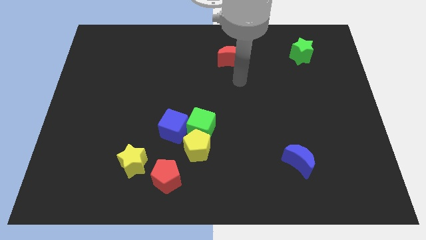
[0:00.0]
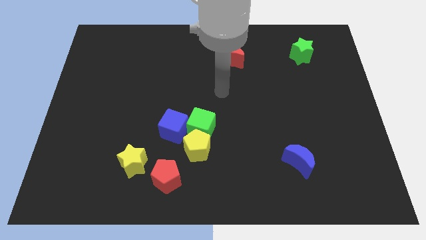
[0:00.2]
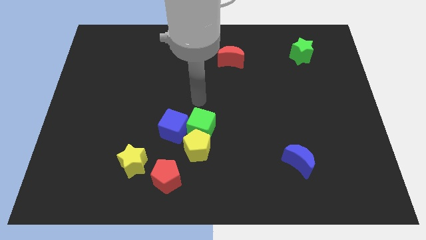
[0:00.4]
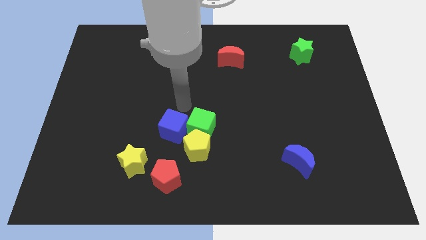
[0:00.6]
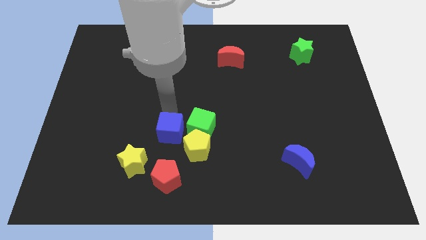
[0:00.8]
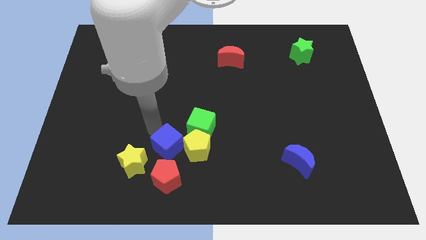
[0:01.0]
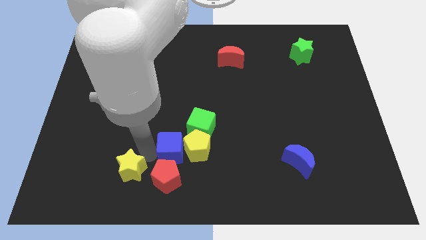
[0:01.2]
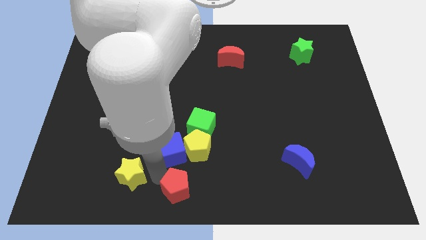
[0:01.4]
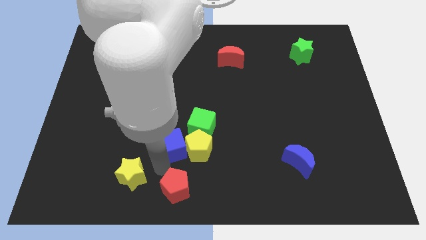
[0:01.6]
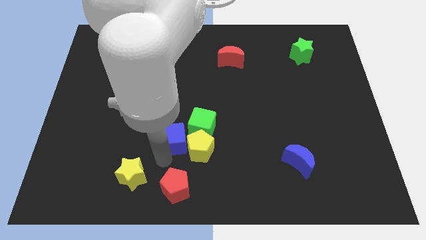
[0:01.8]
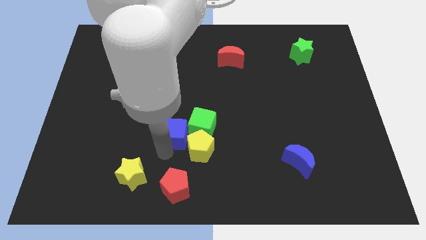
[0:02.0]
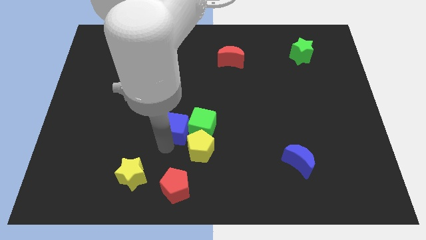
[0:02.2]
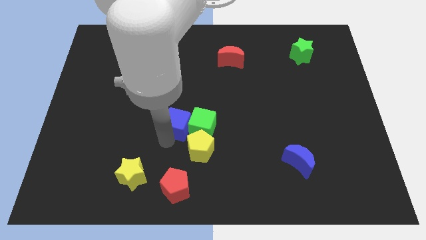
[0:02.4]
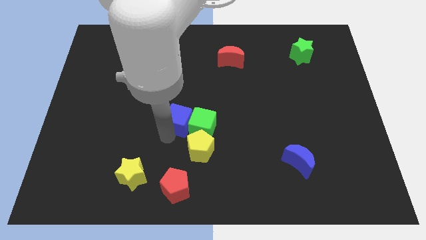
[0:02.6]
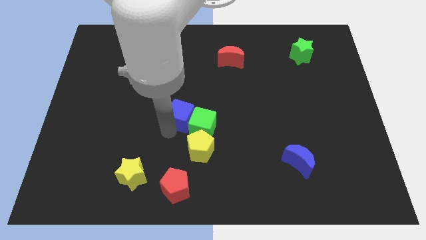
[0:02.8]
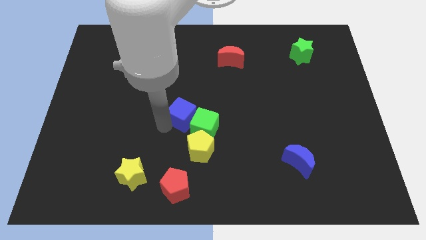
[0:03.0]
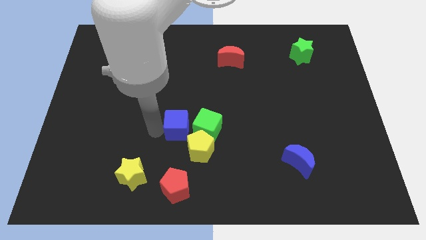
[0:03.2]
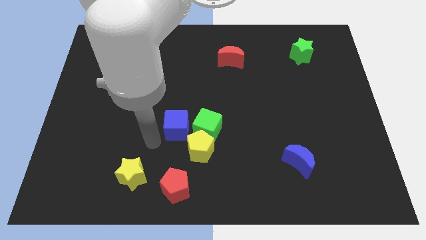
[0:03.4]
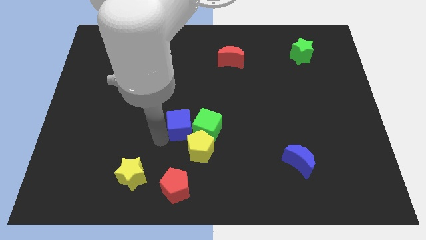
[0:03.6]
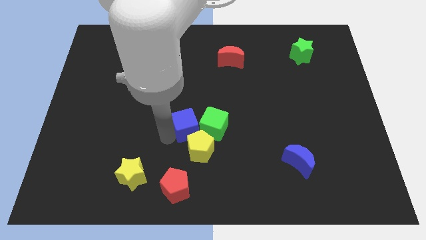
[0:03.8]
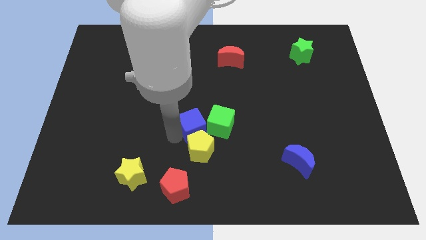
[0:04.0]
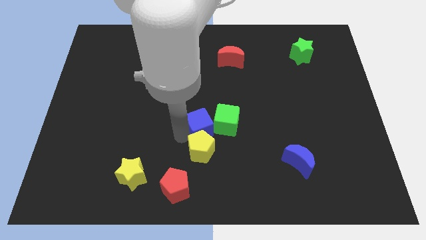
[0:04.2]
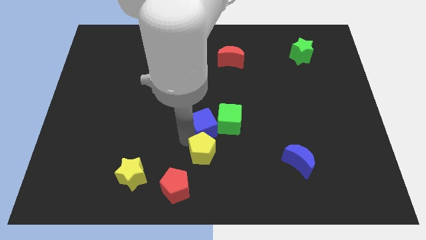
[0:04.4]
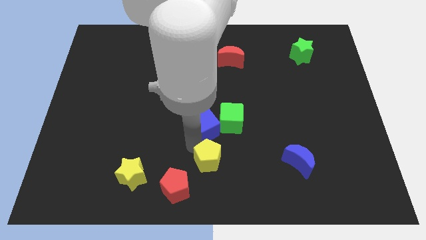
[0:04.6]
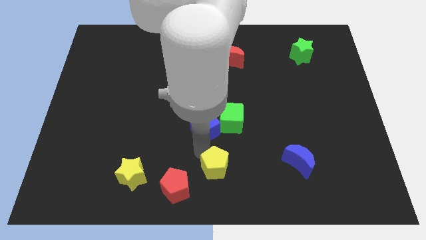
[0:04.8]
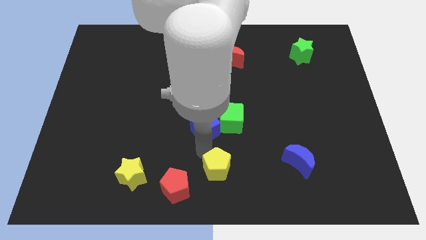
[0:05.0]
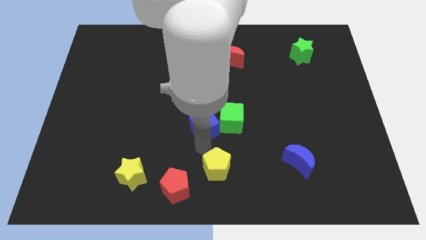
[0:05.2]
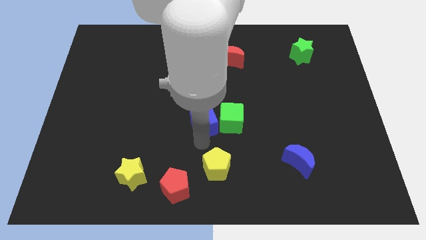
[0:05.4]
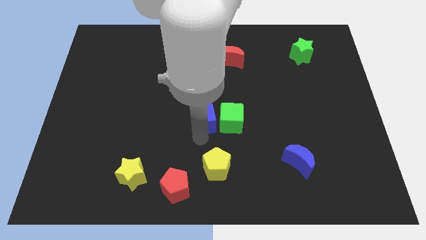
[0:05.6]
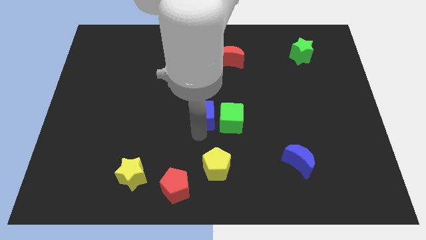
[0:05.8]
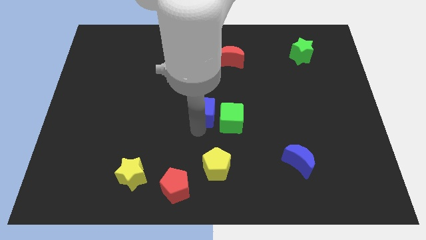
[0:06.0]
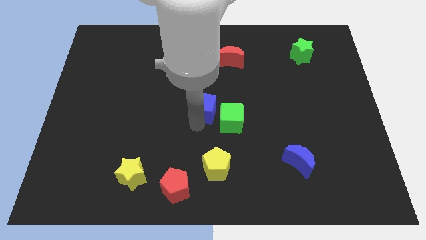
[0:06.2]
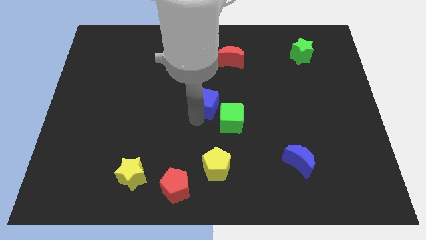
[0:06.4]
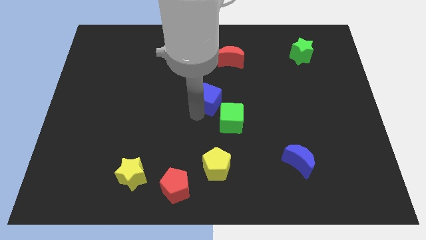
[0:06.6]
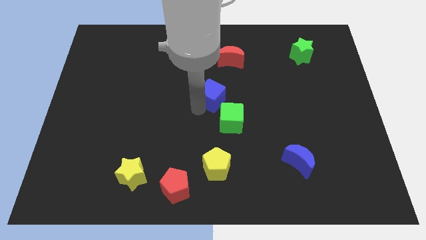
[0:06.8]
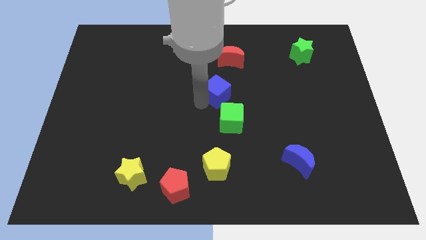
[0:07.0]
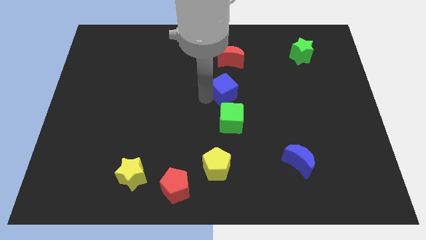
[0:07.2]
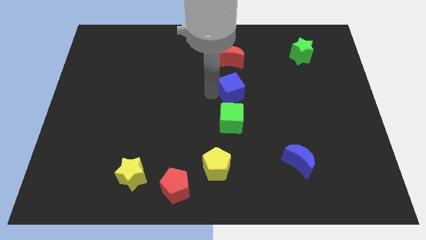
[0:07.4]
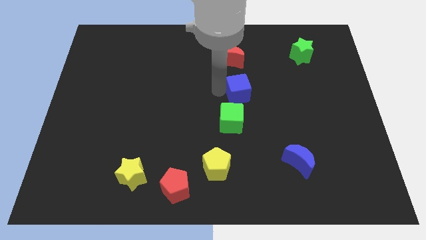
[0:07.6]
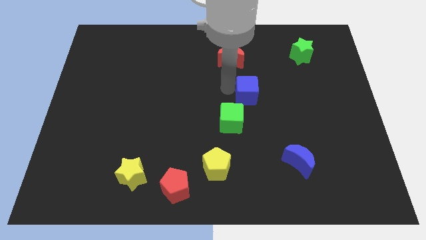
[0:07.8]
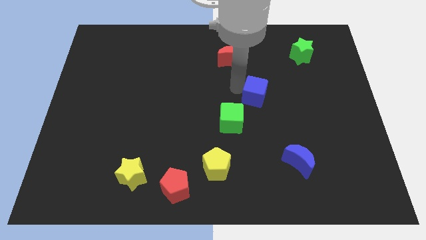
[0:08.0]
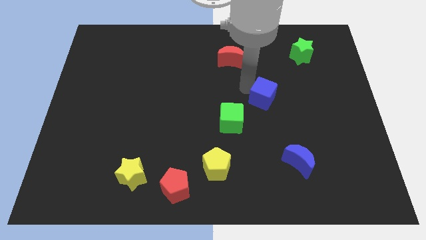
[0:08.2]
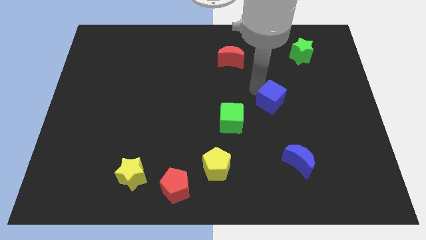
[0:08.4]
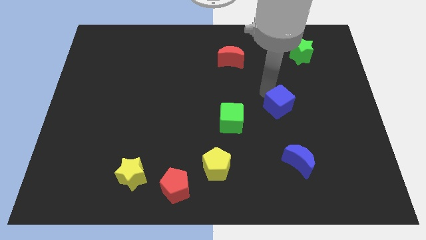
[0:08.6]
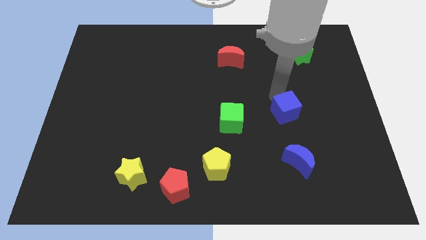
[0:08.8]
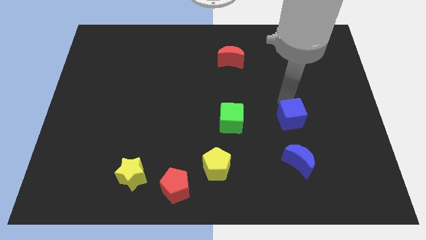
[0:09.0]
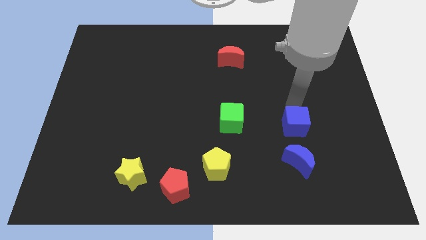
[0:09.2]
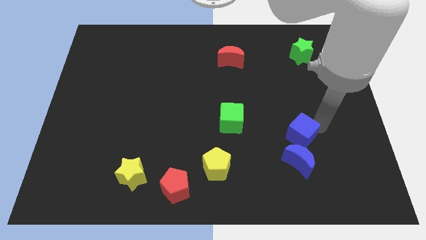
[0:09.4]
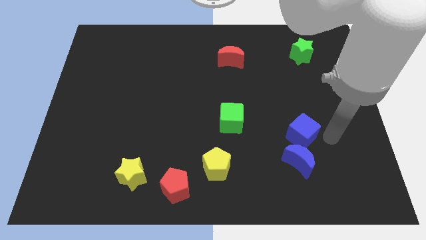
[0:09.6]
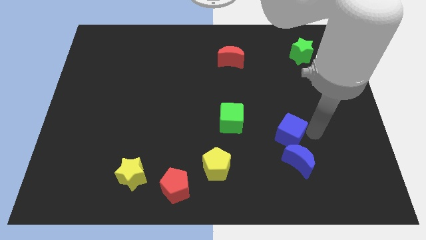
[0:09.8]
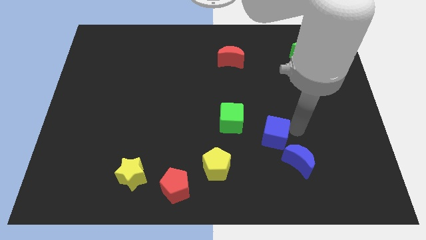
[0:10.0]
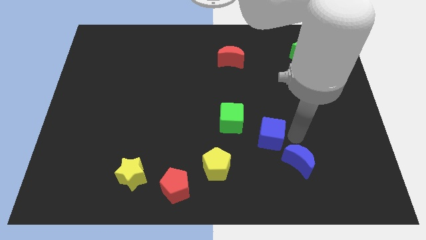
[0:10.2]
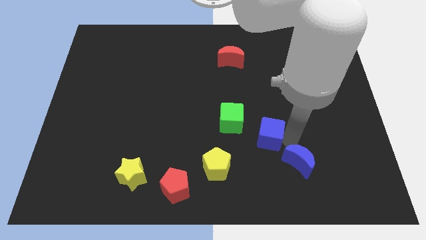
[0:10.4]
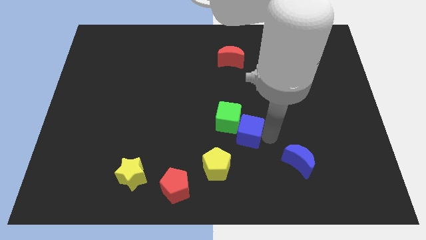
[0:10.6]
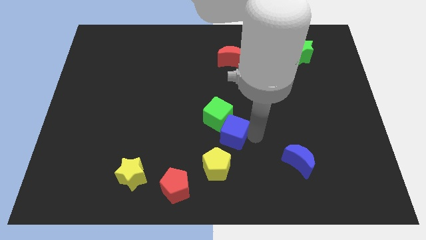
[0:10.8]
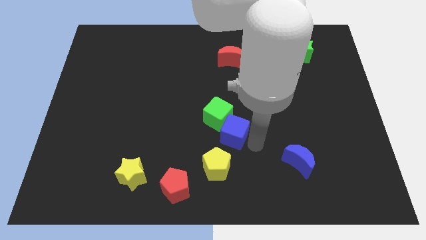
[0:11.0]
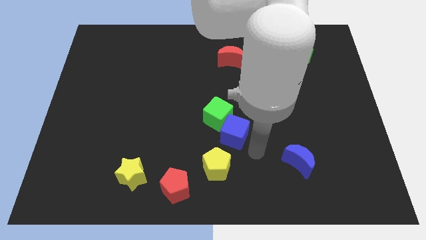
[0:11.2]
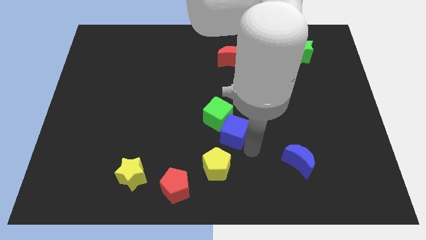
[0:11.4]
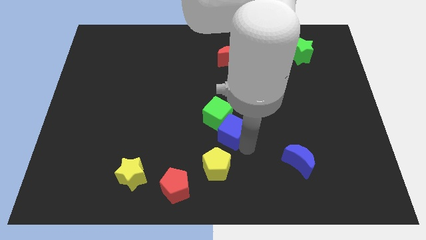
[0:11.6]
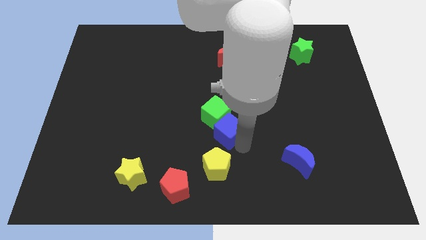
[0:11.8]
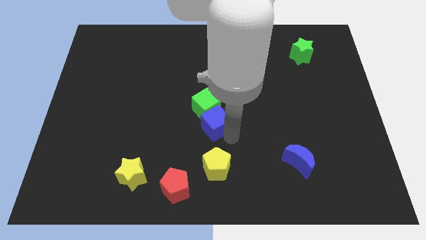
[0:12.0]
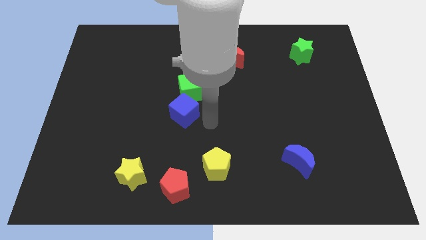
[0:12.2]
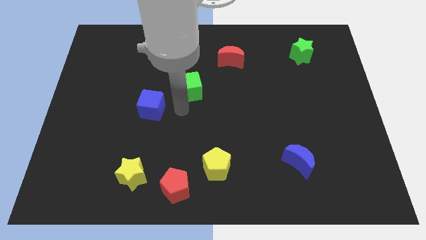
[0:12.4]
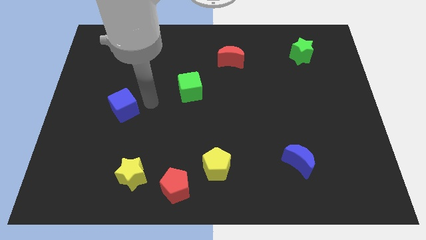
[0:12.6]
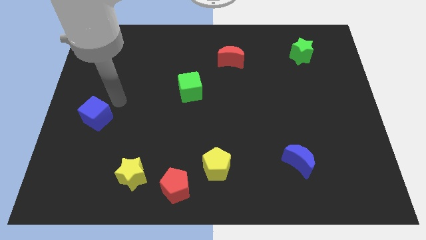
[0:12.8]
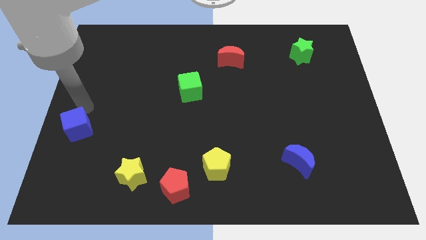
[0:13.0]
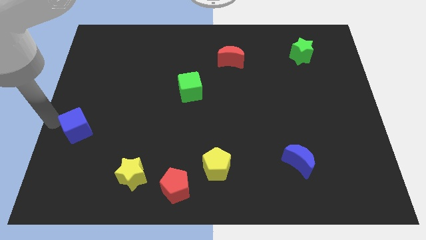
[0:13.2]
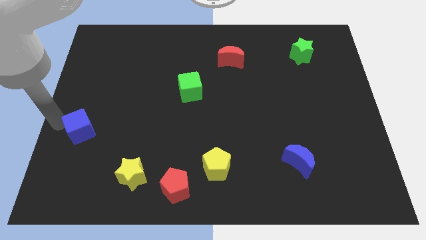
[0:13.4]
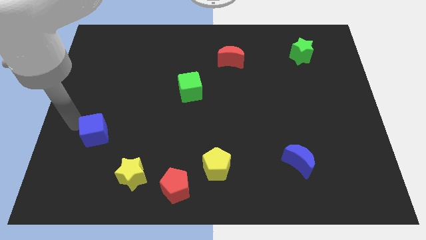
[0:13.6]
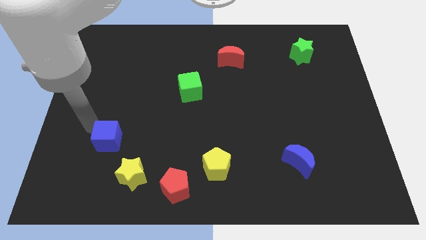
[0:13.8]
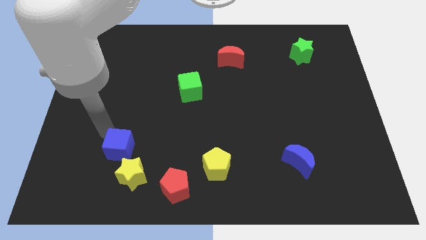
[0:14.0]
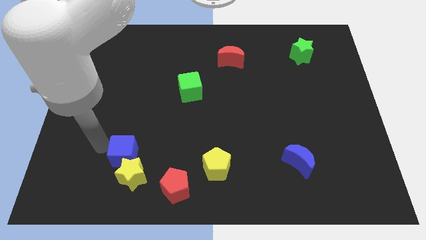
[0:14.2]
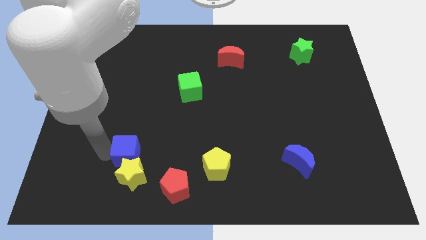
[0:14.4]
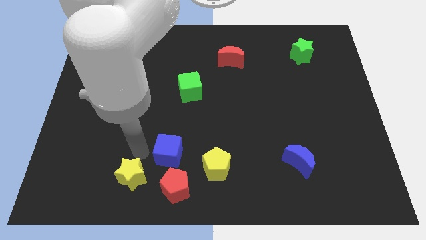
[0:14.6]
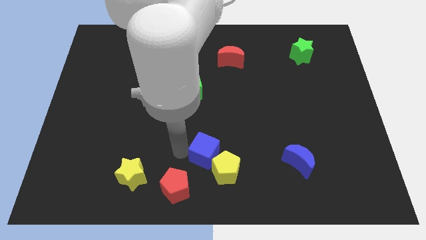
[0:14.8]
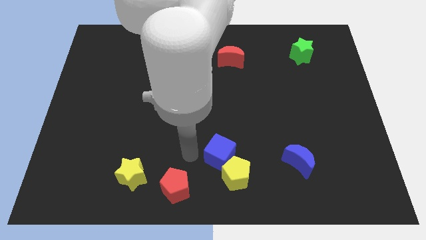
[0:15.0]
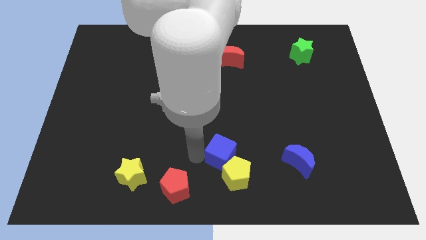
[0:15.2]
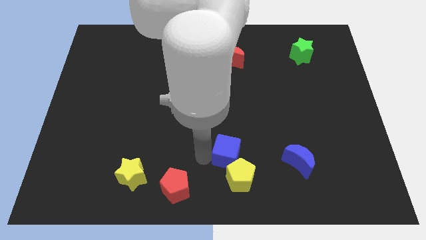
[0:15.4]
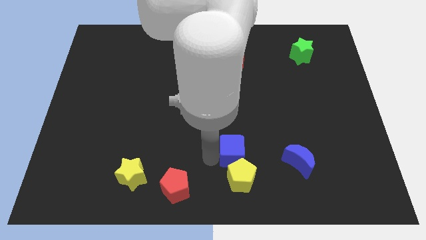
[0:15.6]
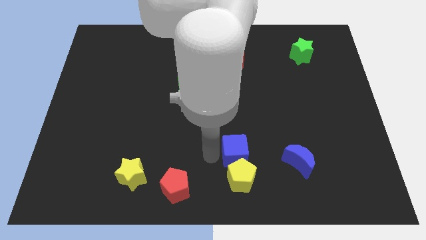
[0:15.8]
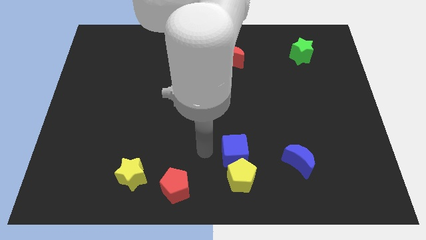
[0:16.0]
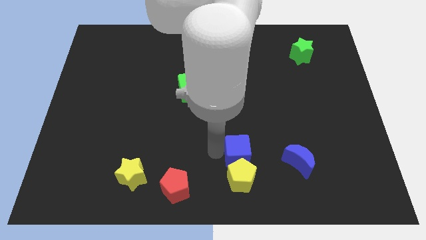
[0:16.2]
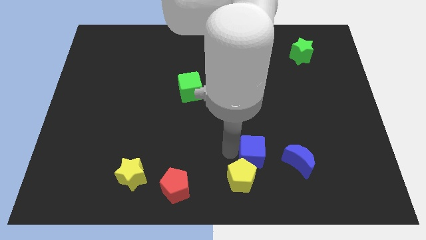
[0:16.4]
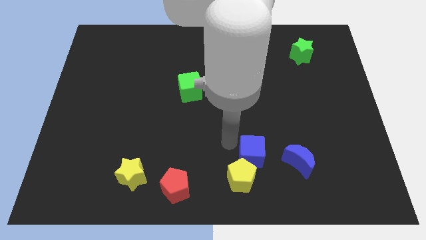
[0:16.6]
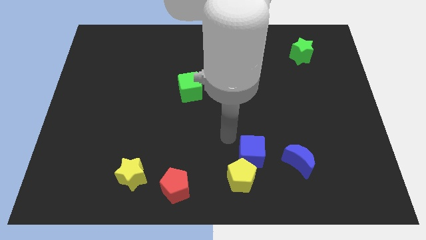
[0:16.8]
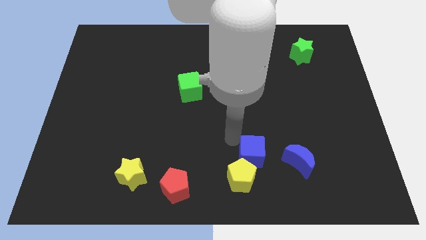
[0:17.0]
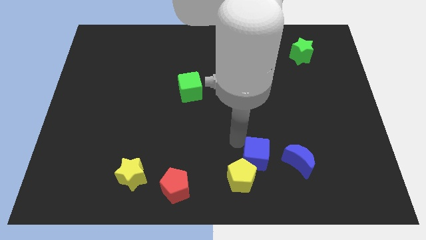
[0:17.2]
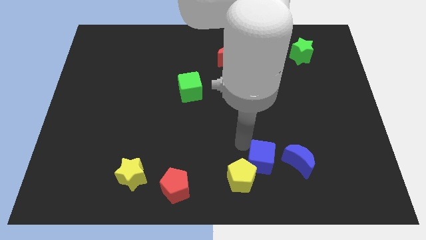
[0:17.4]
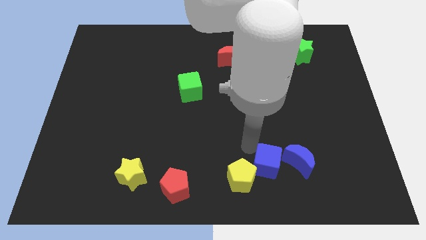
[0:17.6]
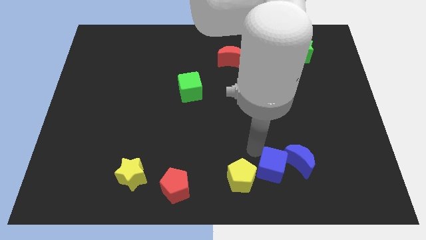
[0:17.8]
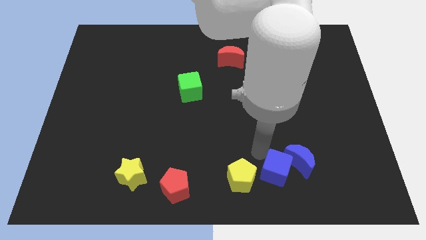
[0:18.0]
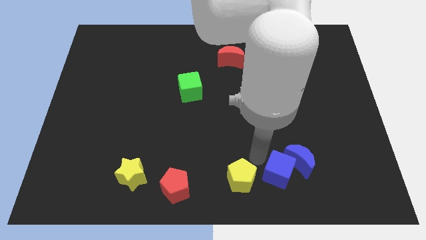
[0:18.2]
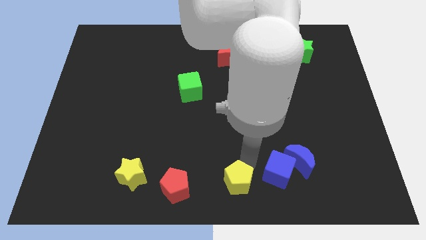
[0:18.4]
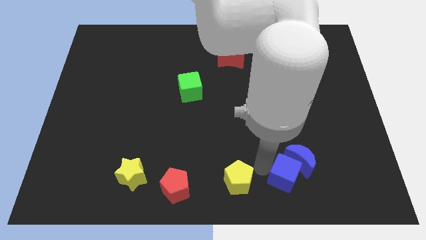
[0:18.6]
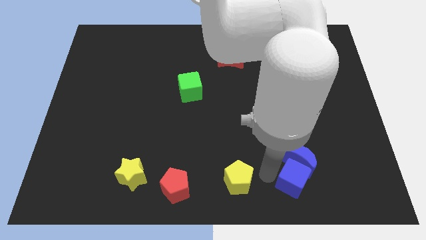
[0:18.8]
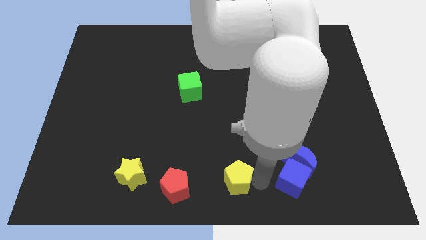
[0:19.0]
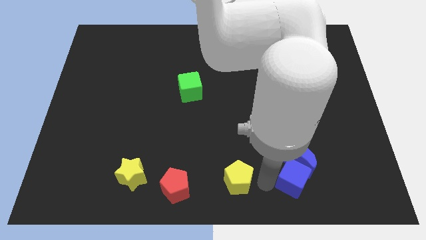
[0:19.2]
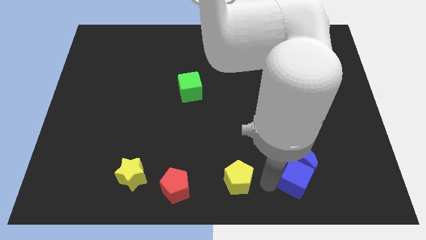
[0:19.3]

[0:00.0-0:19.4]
move the blue cube diagonally down and to the right of the blue moon
